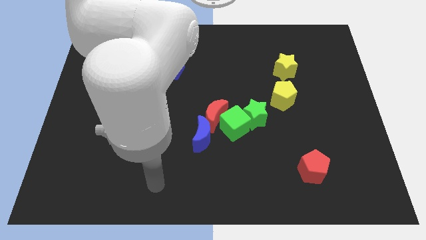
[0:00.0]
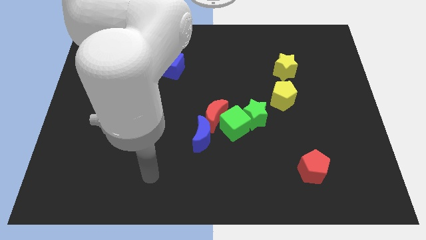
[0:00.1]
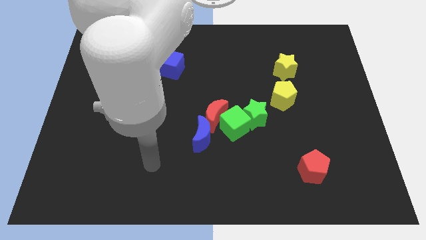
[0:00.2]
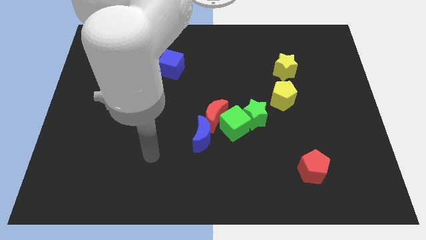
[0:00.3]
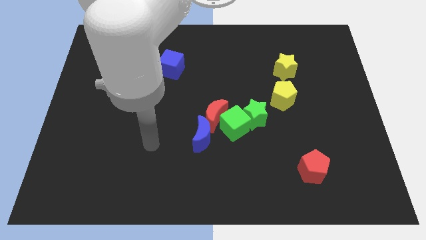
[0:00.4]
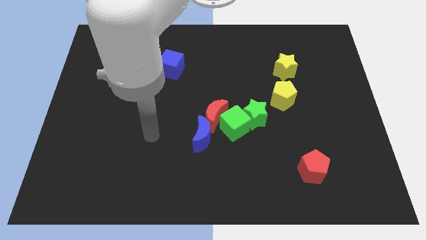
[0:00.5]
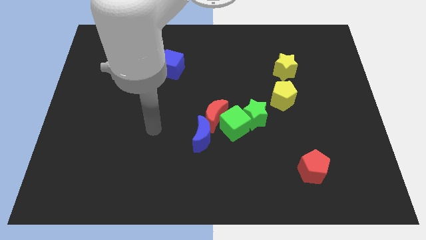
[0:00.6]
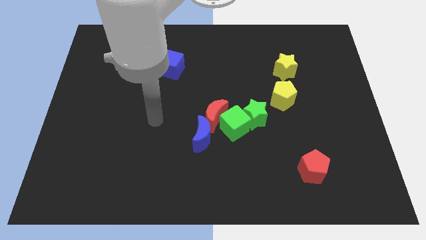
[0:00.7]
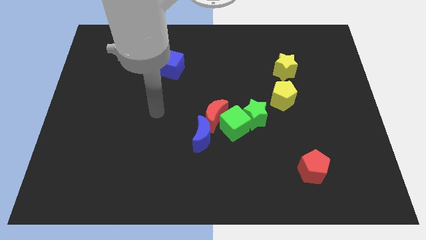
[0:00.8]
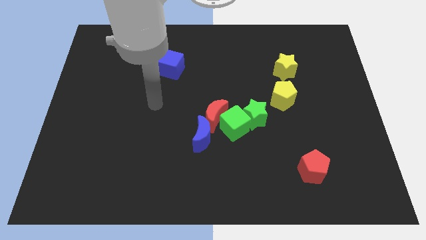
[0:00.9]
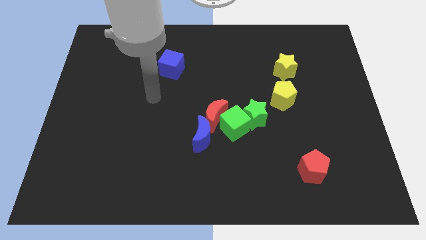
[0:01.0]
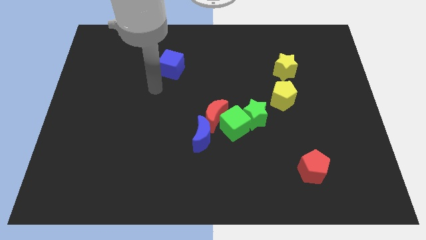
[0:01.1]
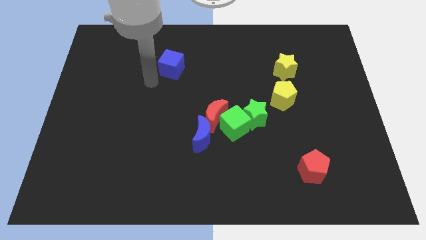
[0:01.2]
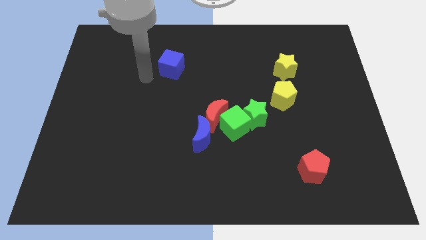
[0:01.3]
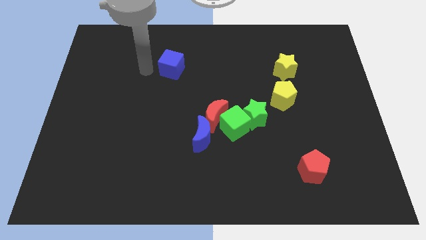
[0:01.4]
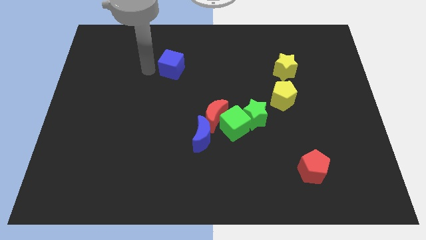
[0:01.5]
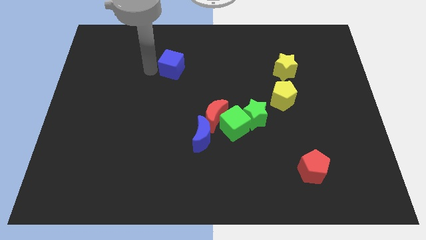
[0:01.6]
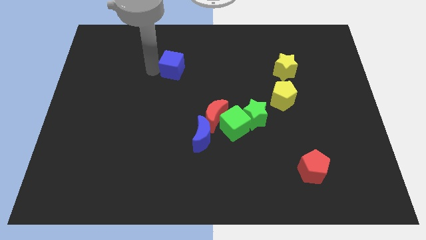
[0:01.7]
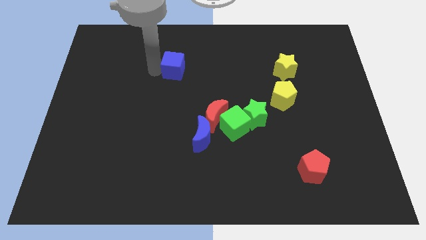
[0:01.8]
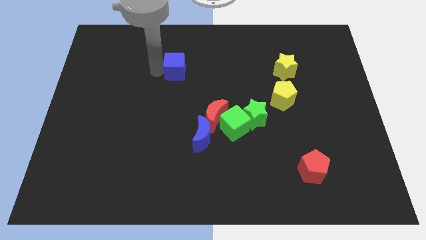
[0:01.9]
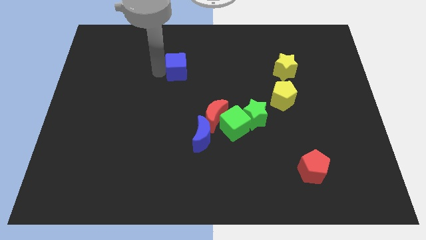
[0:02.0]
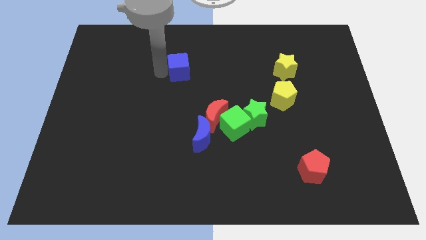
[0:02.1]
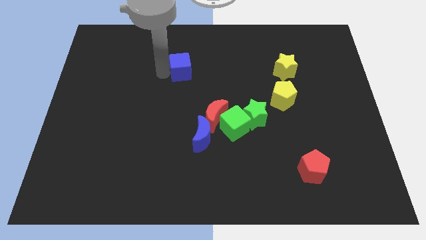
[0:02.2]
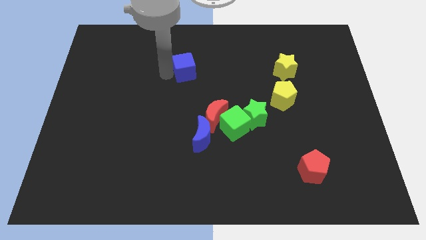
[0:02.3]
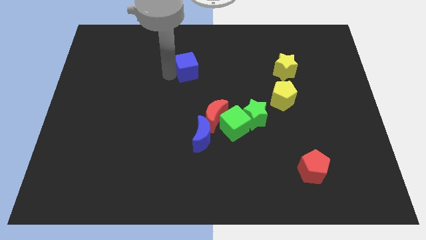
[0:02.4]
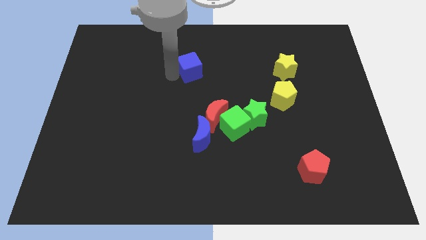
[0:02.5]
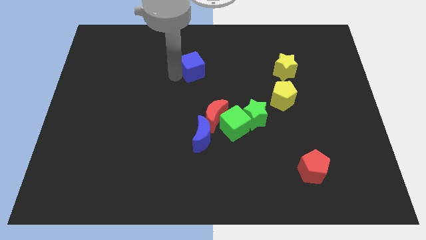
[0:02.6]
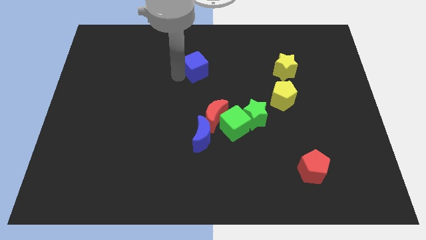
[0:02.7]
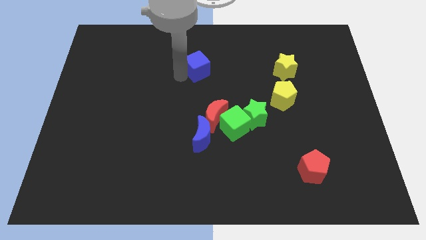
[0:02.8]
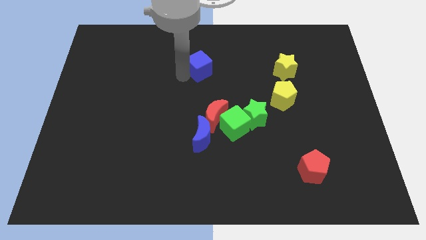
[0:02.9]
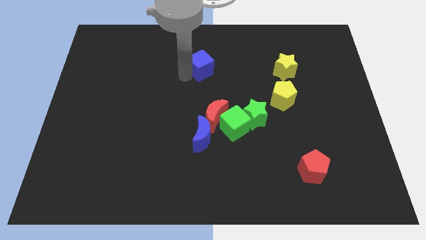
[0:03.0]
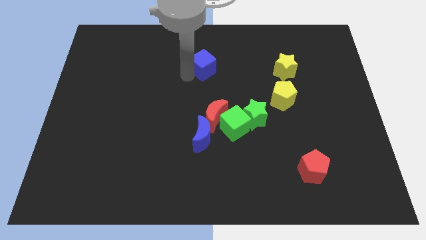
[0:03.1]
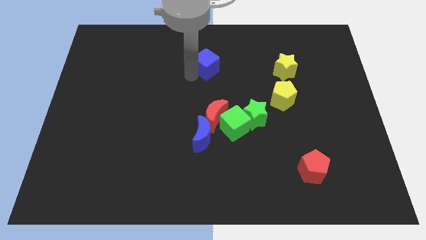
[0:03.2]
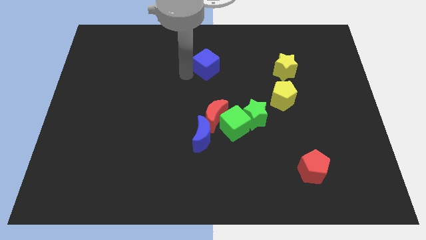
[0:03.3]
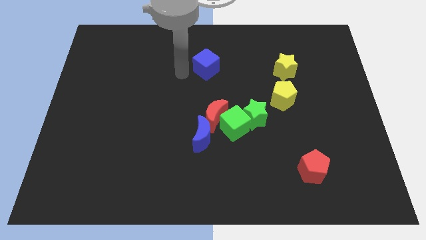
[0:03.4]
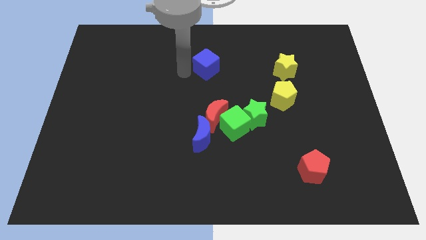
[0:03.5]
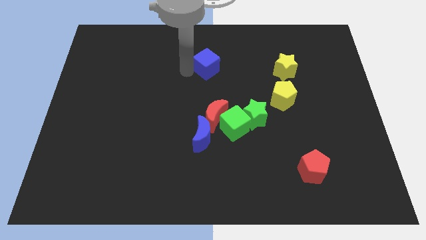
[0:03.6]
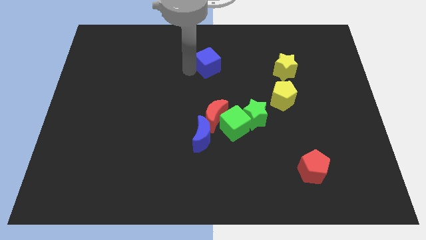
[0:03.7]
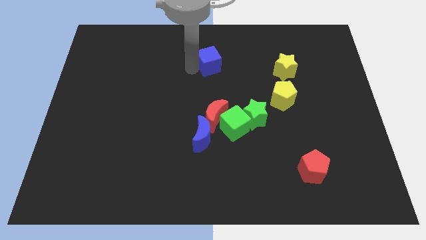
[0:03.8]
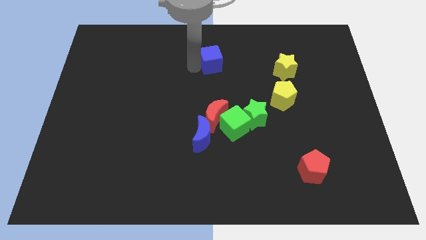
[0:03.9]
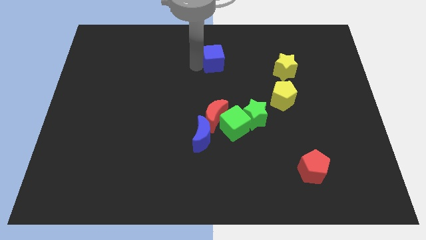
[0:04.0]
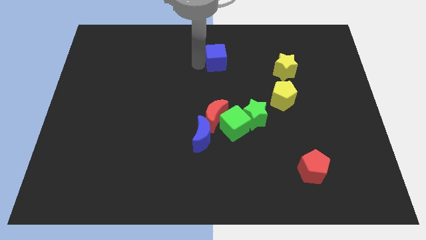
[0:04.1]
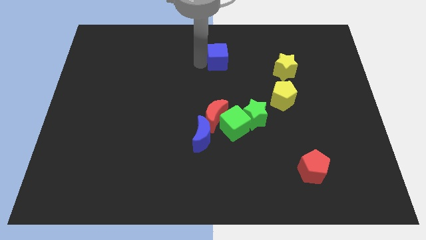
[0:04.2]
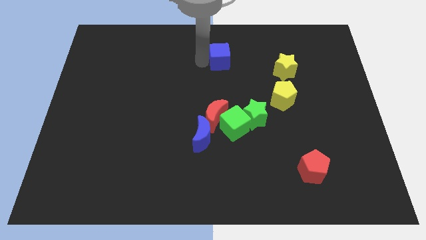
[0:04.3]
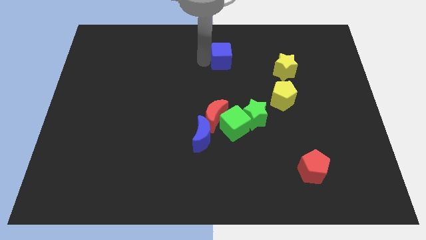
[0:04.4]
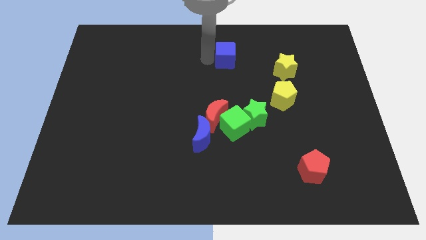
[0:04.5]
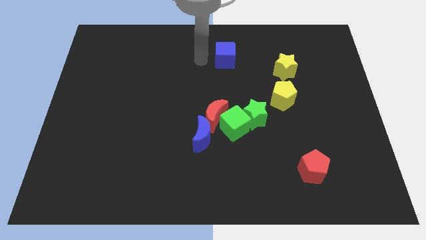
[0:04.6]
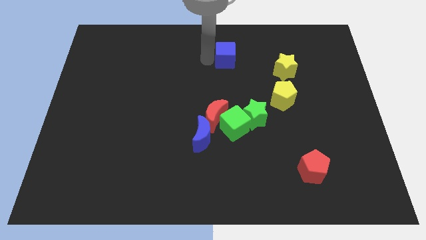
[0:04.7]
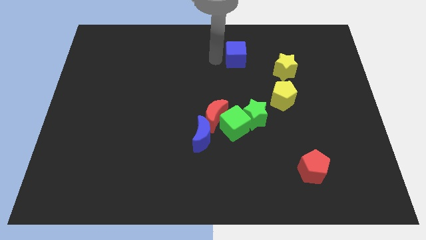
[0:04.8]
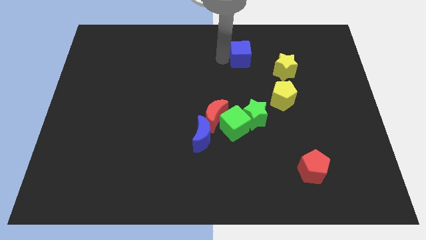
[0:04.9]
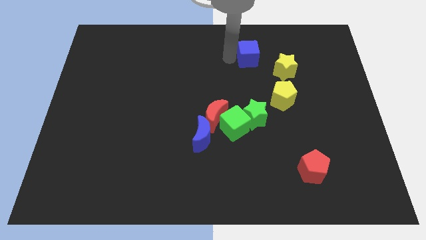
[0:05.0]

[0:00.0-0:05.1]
slide the blue cube to the top left of the yellow star

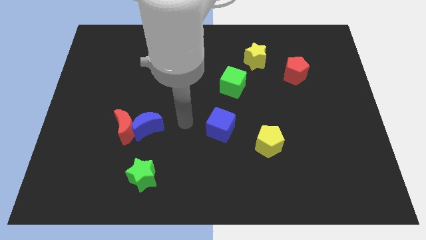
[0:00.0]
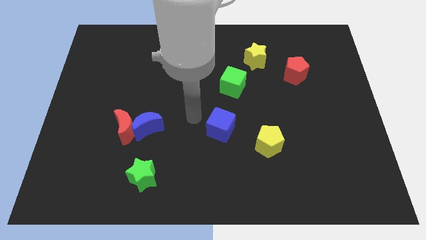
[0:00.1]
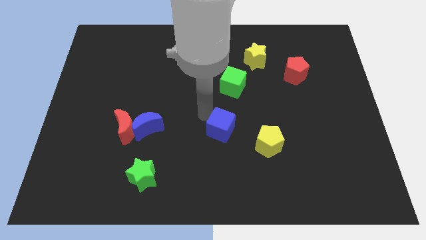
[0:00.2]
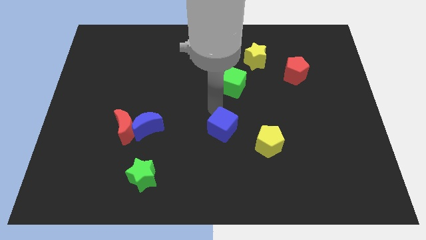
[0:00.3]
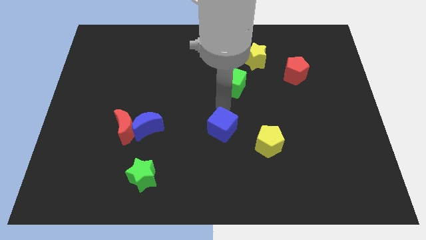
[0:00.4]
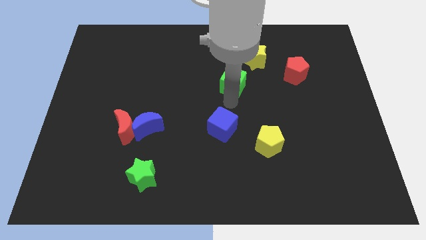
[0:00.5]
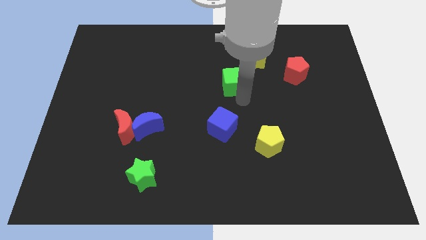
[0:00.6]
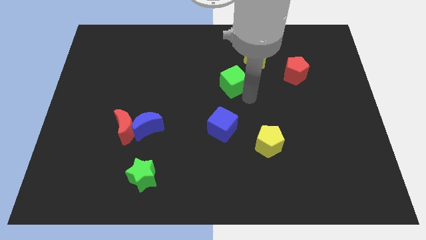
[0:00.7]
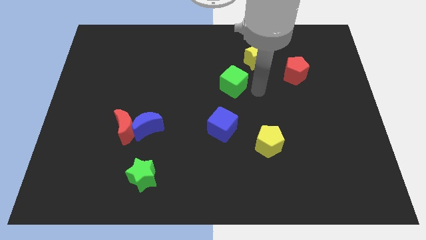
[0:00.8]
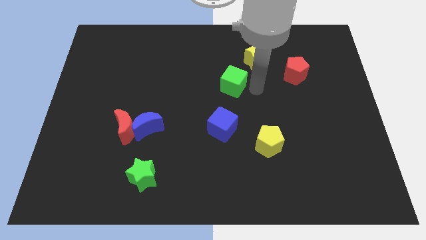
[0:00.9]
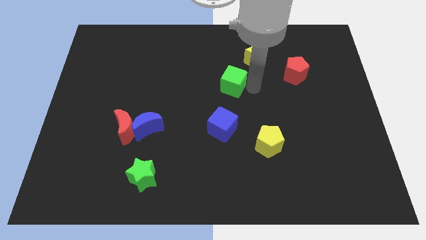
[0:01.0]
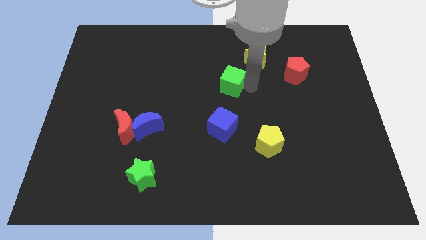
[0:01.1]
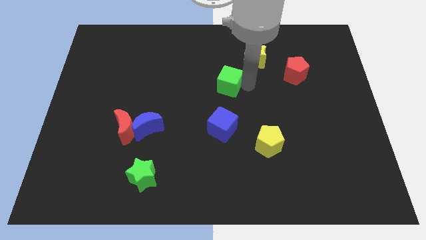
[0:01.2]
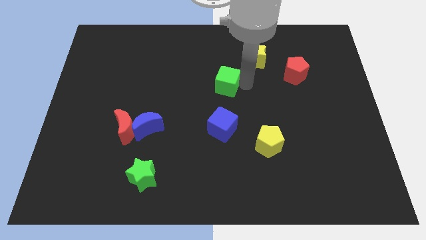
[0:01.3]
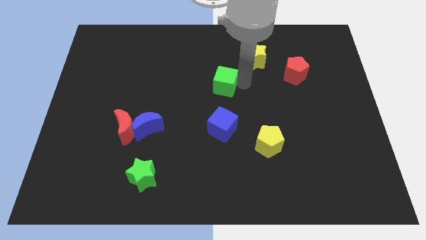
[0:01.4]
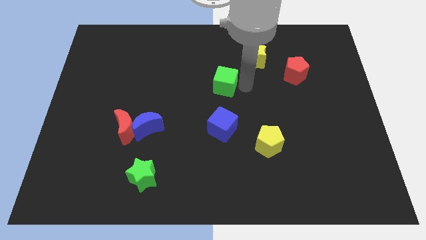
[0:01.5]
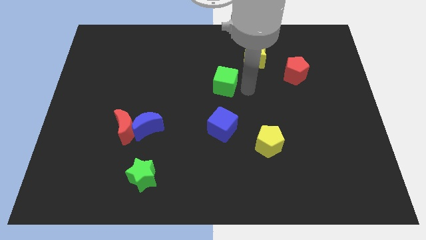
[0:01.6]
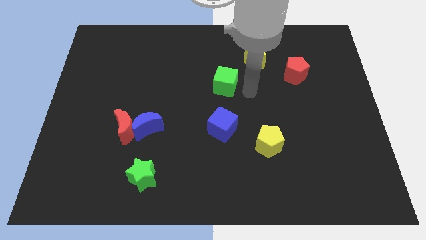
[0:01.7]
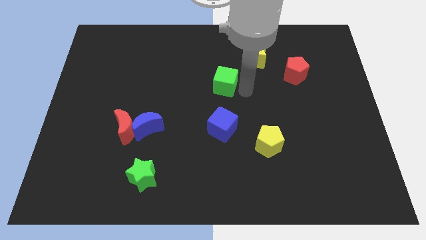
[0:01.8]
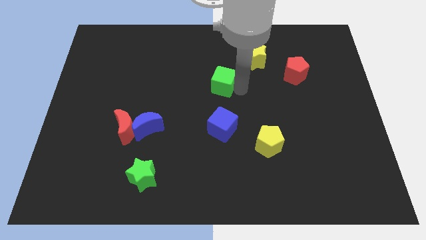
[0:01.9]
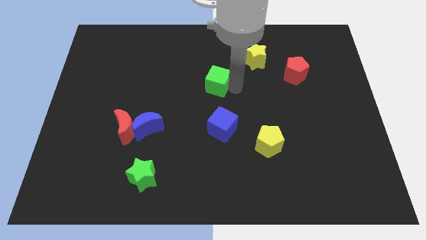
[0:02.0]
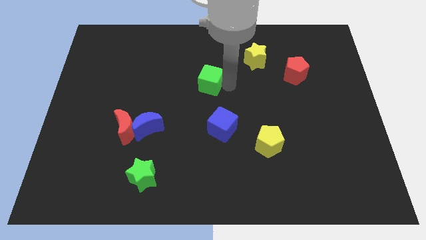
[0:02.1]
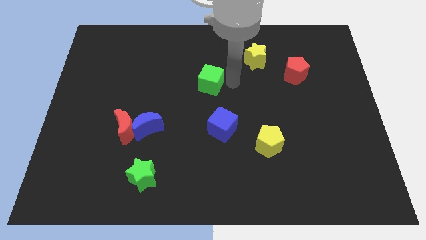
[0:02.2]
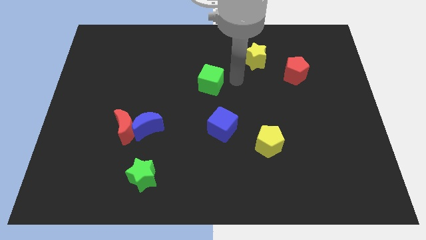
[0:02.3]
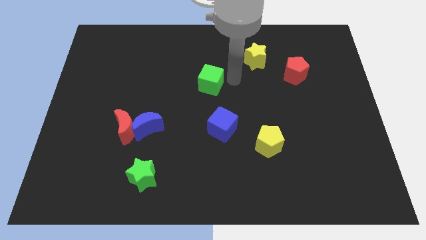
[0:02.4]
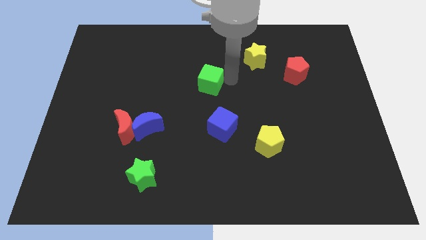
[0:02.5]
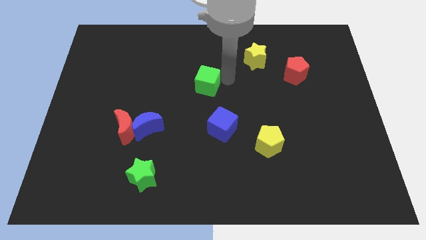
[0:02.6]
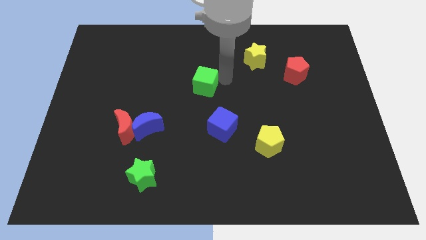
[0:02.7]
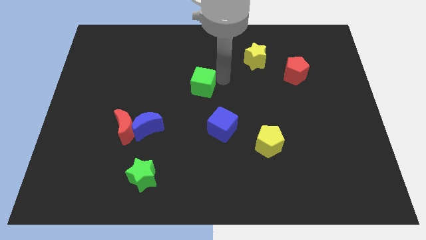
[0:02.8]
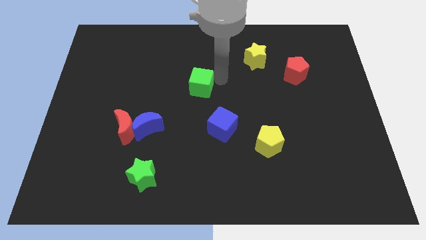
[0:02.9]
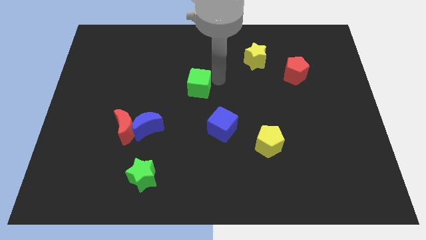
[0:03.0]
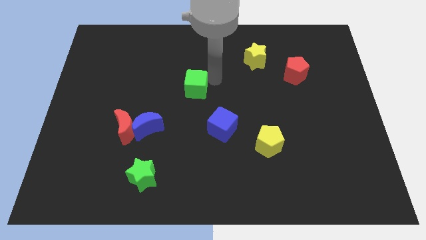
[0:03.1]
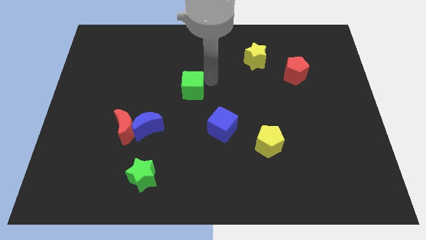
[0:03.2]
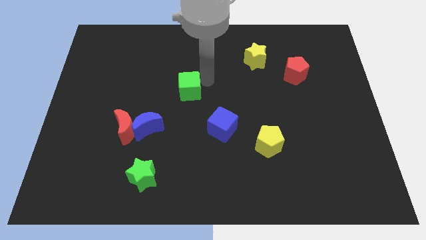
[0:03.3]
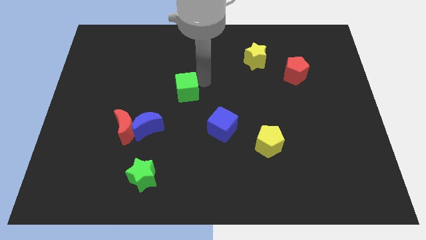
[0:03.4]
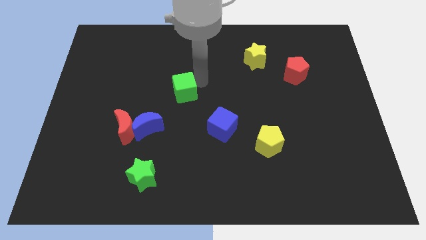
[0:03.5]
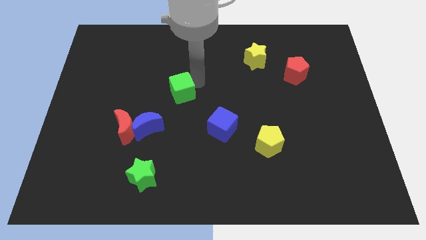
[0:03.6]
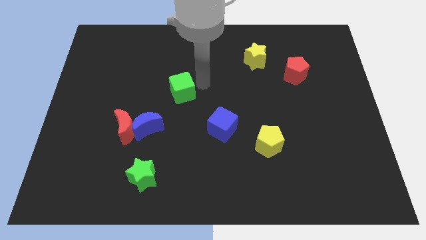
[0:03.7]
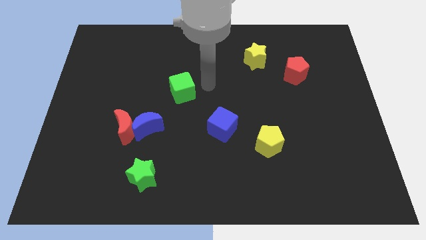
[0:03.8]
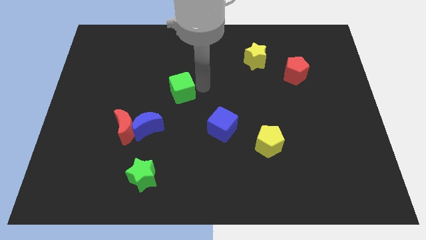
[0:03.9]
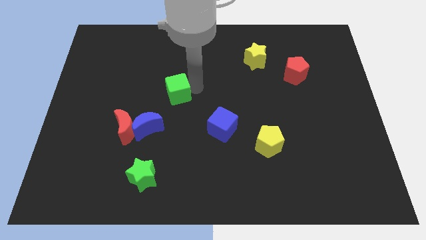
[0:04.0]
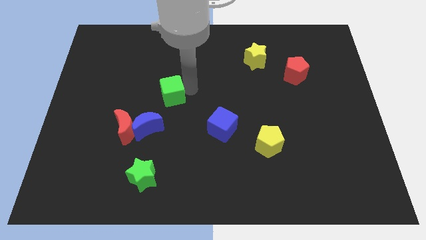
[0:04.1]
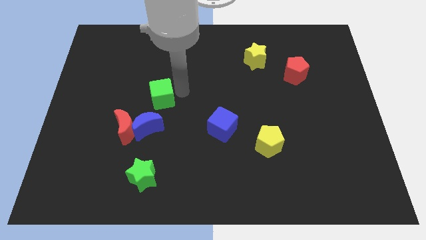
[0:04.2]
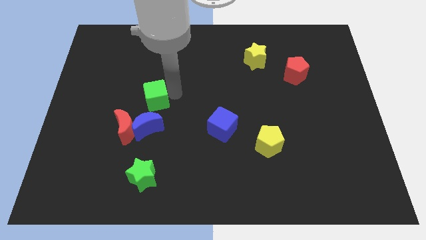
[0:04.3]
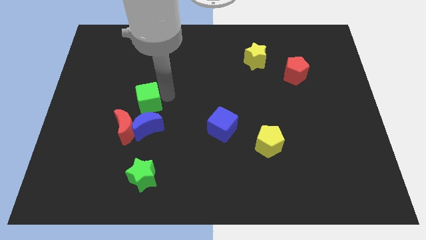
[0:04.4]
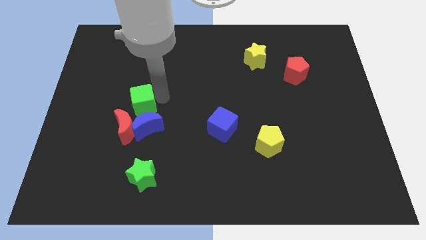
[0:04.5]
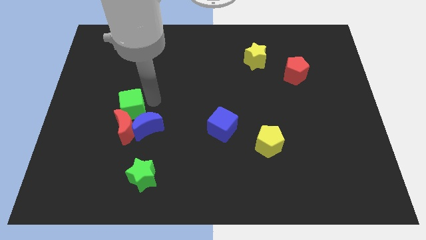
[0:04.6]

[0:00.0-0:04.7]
move the green cube to the top left of the red moon
